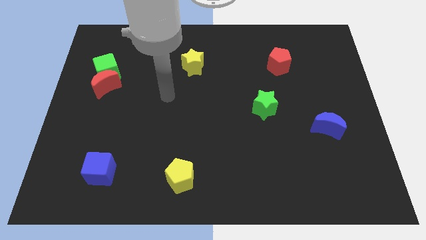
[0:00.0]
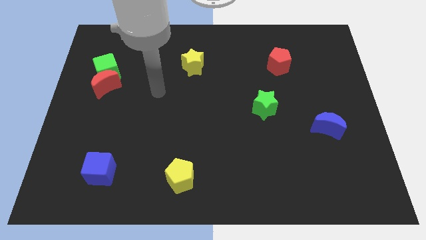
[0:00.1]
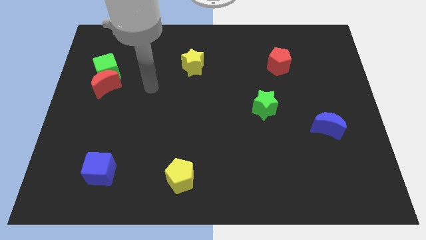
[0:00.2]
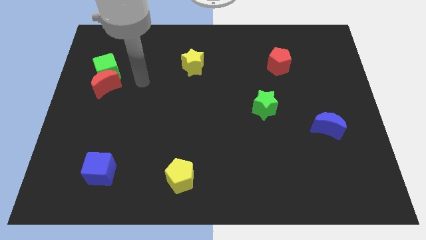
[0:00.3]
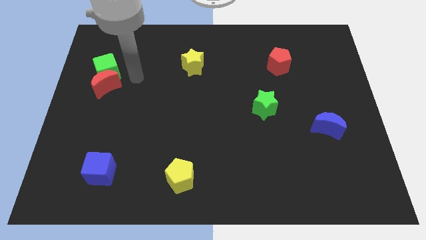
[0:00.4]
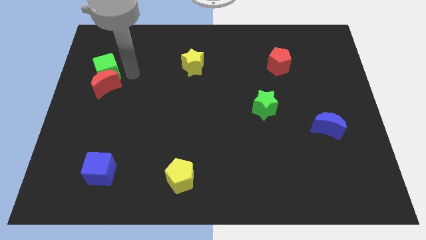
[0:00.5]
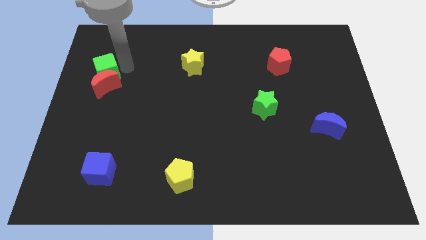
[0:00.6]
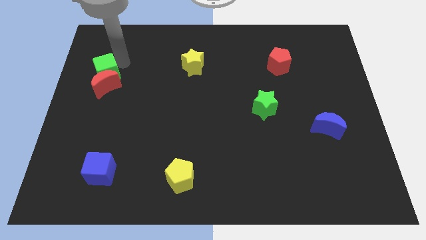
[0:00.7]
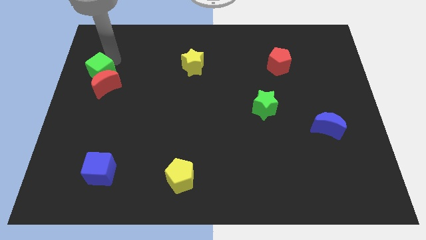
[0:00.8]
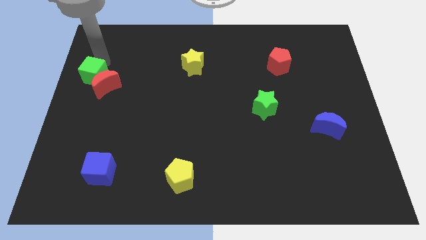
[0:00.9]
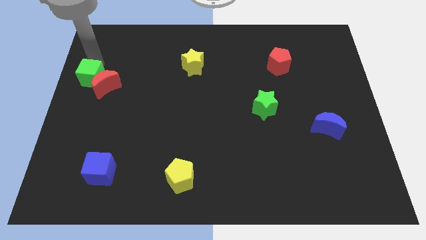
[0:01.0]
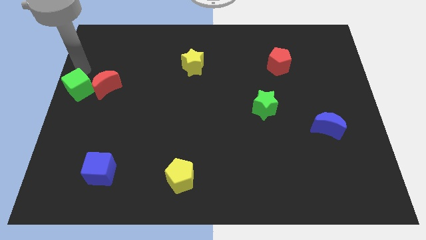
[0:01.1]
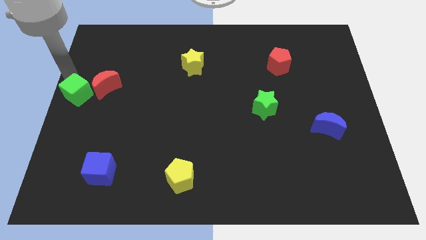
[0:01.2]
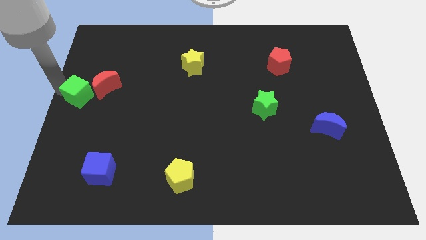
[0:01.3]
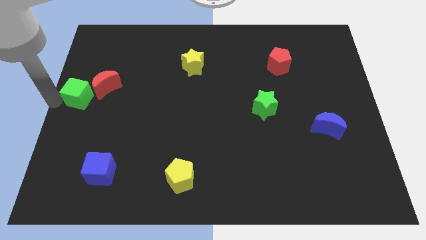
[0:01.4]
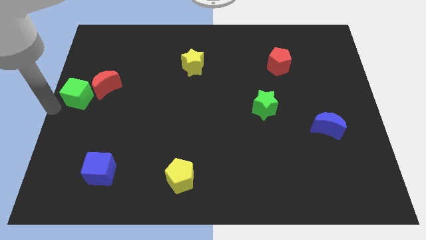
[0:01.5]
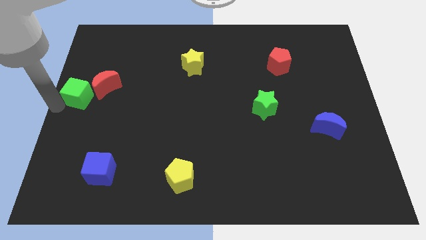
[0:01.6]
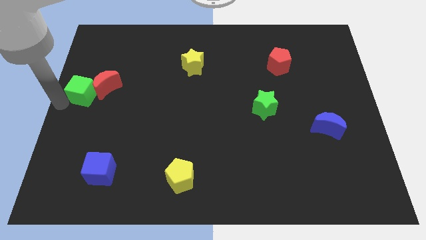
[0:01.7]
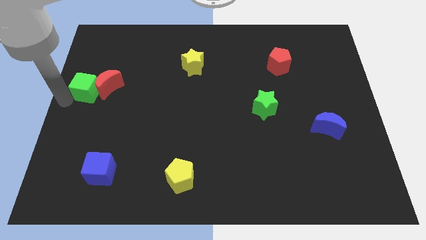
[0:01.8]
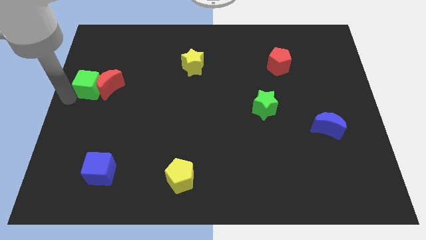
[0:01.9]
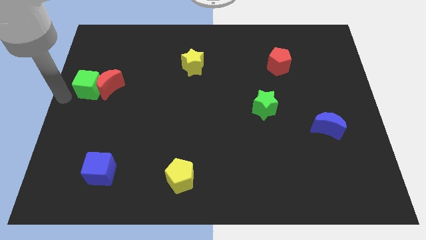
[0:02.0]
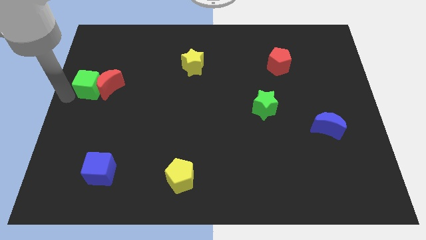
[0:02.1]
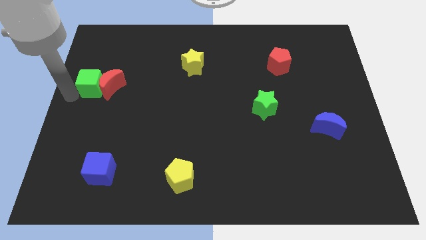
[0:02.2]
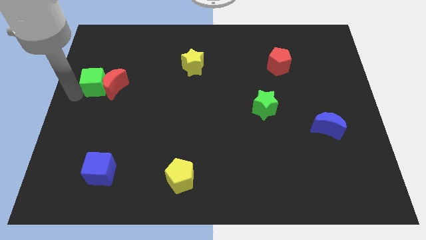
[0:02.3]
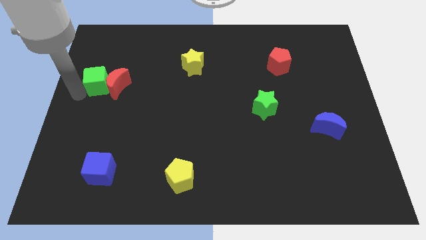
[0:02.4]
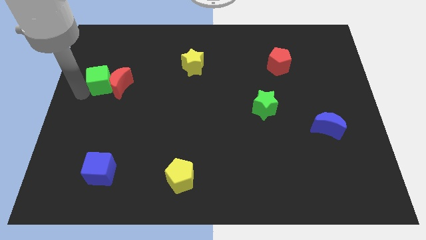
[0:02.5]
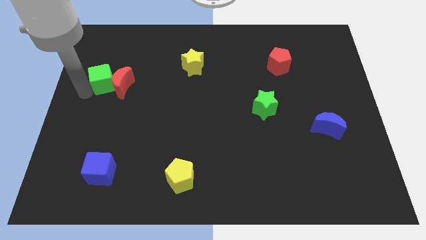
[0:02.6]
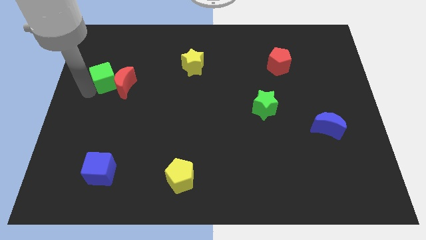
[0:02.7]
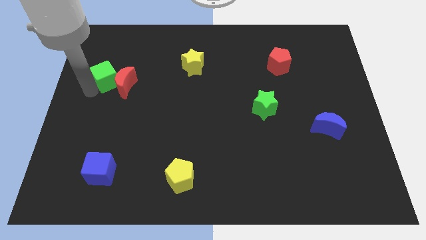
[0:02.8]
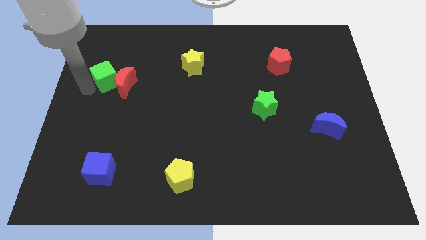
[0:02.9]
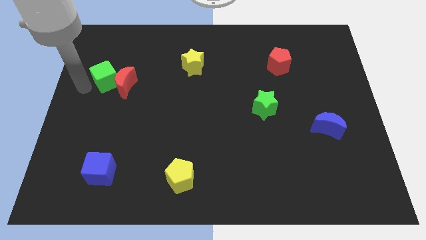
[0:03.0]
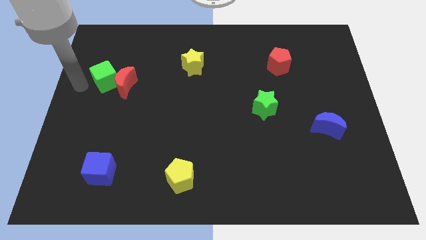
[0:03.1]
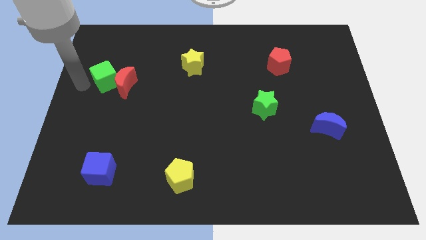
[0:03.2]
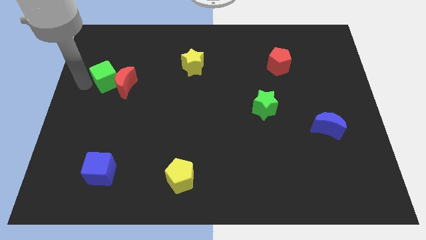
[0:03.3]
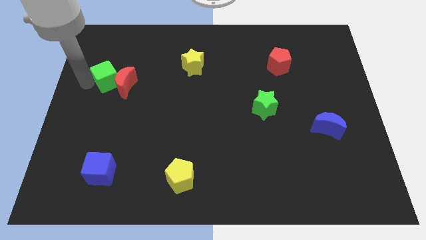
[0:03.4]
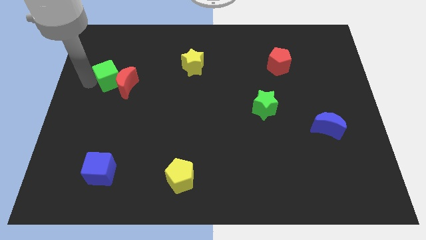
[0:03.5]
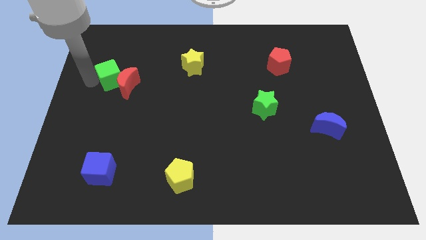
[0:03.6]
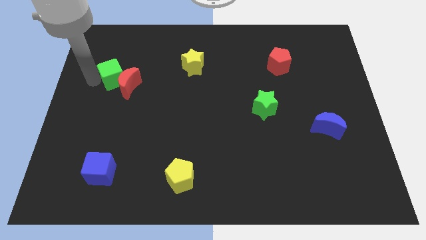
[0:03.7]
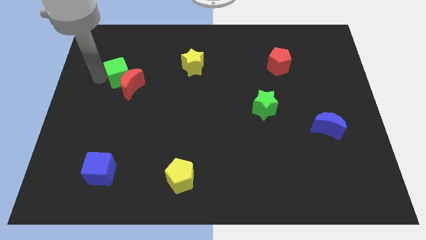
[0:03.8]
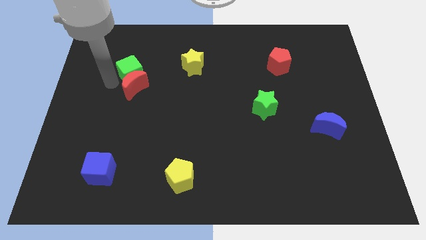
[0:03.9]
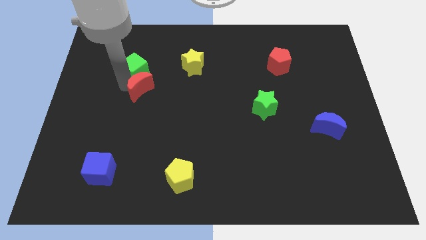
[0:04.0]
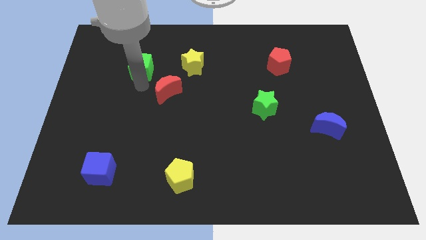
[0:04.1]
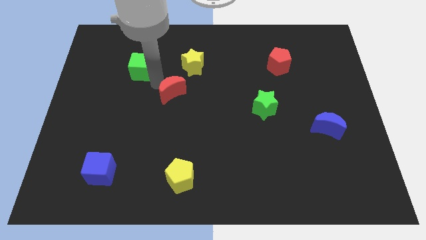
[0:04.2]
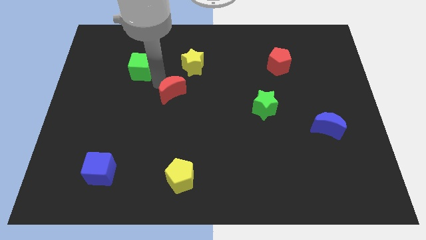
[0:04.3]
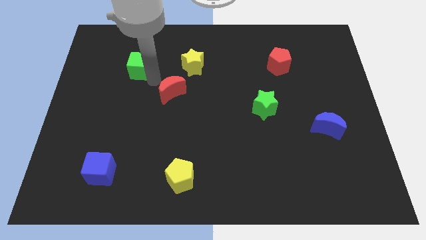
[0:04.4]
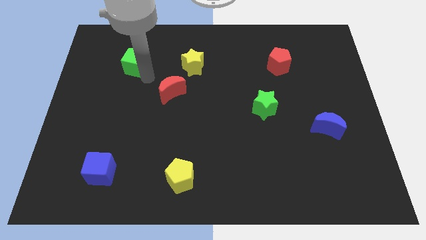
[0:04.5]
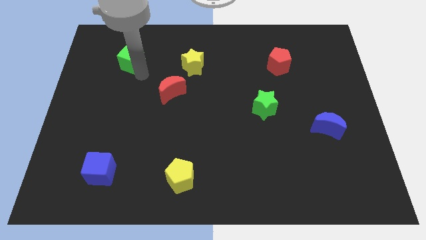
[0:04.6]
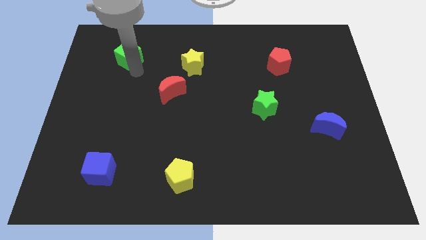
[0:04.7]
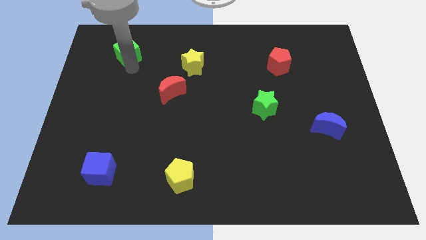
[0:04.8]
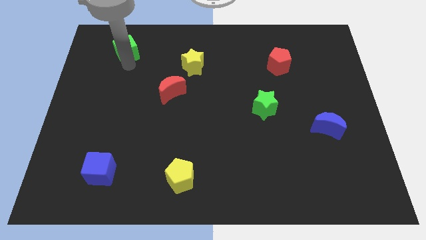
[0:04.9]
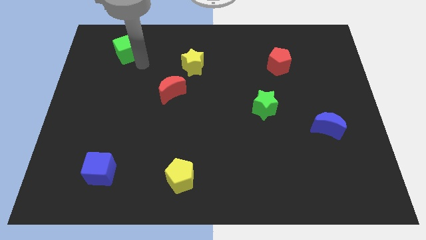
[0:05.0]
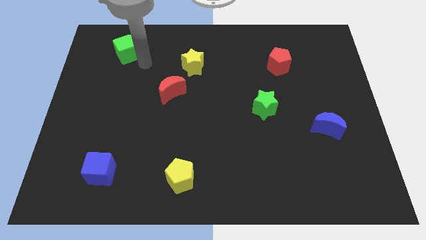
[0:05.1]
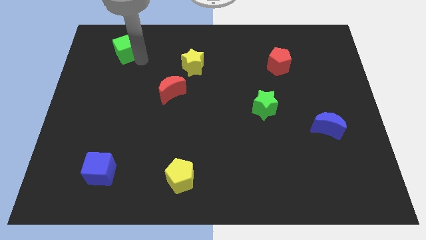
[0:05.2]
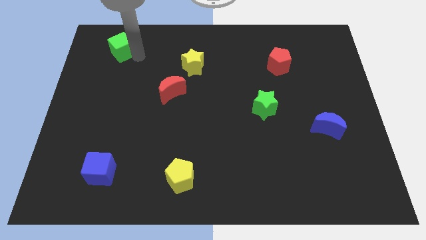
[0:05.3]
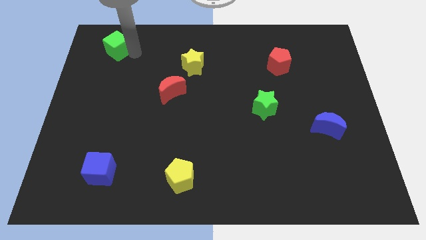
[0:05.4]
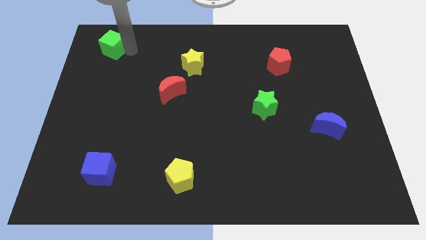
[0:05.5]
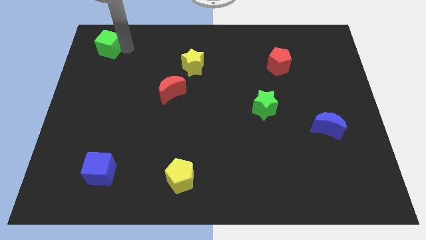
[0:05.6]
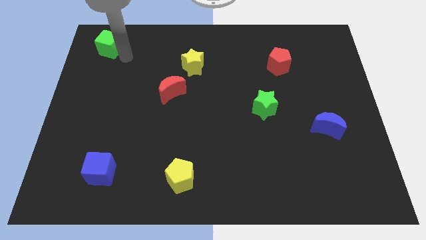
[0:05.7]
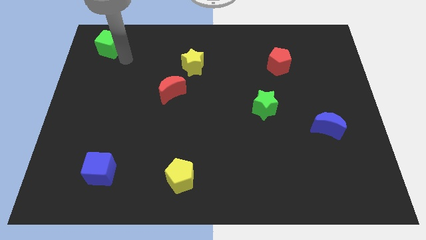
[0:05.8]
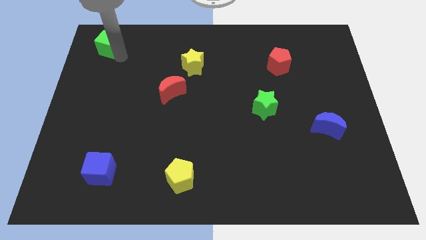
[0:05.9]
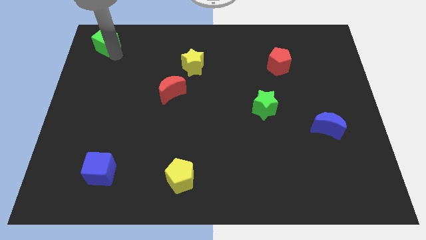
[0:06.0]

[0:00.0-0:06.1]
put the green cube to the upper left corner
